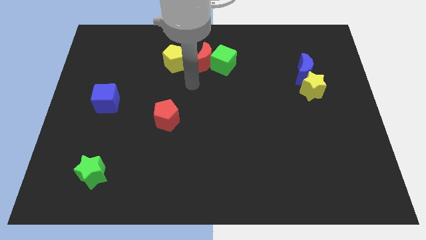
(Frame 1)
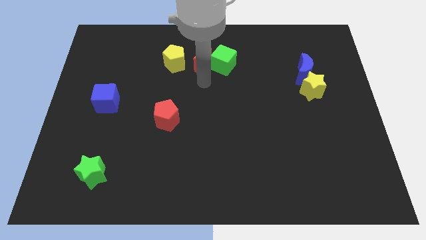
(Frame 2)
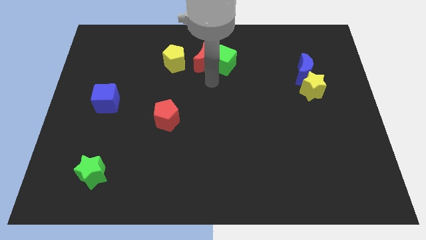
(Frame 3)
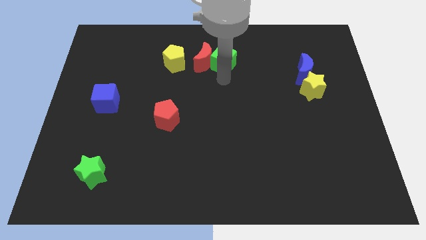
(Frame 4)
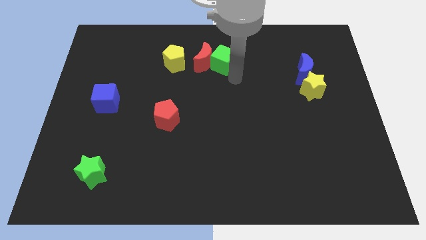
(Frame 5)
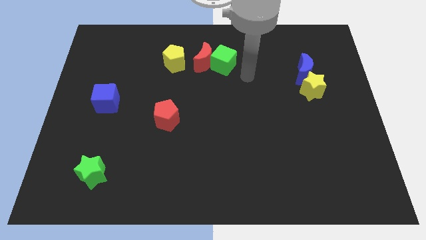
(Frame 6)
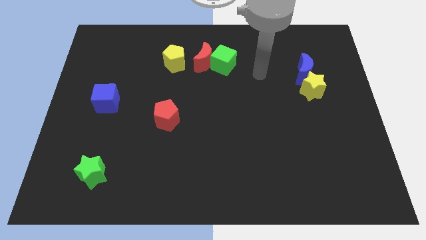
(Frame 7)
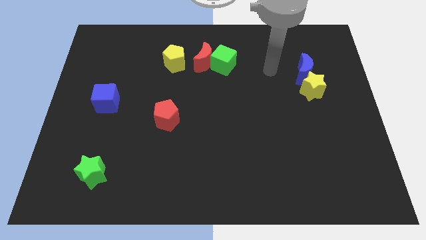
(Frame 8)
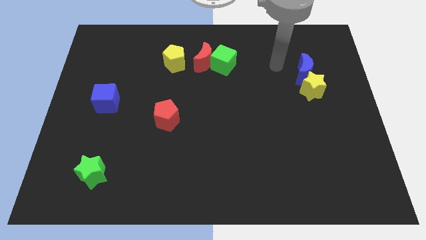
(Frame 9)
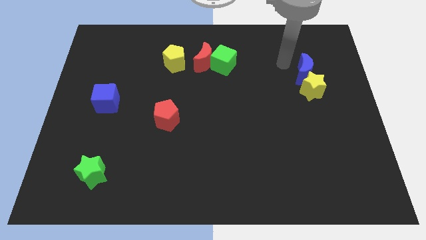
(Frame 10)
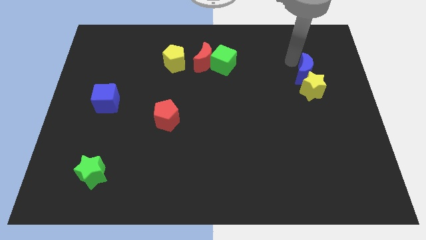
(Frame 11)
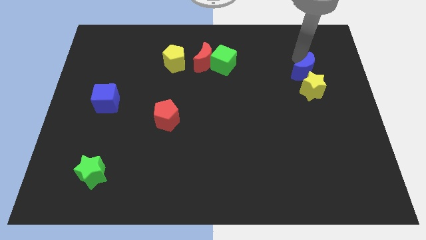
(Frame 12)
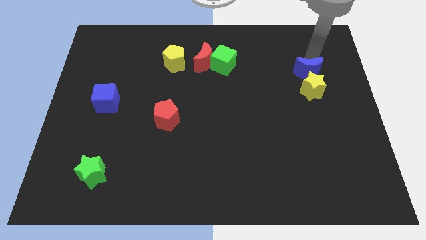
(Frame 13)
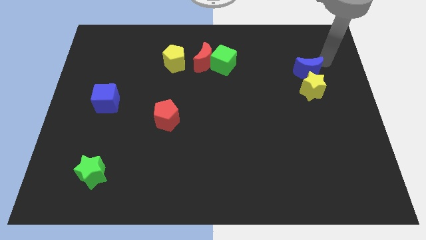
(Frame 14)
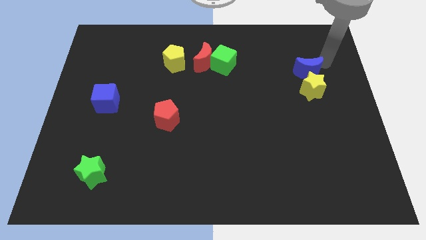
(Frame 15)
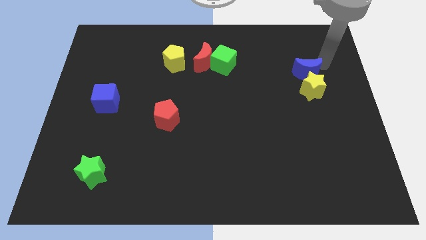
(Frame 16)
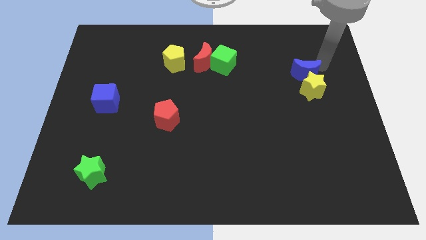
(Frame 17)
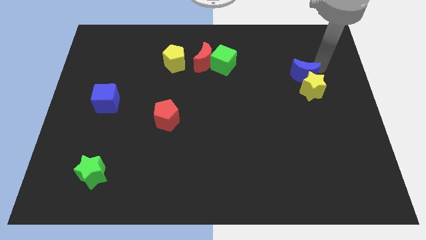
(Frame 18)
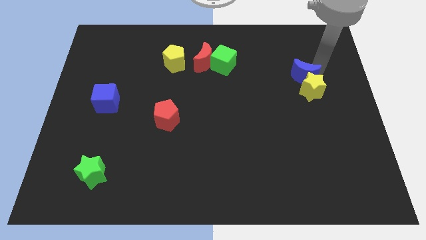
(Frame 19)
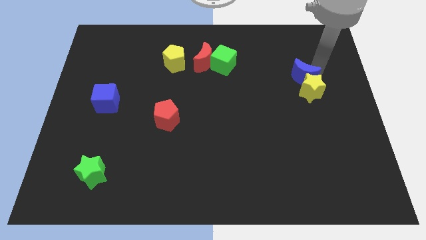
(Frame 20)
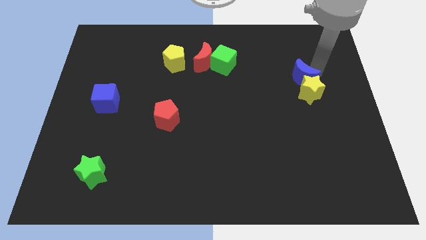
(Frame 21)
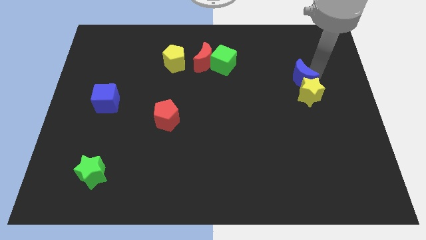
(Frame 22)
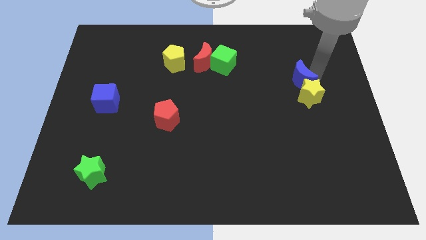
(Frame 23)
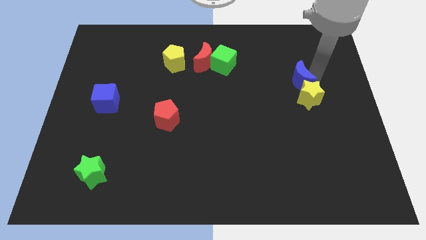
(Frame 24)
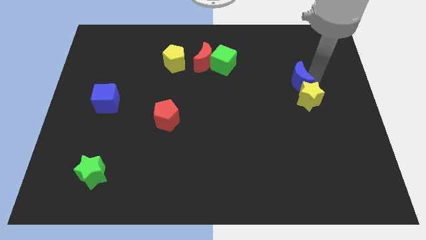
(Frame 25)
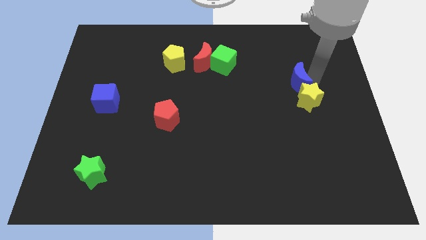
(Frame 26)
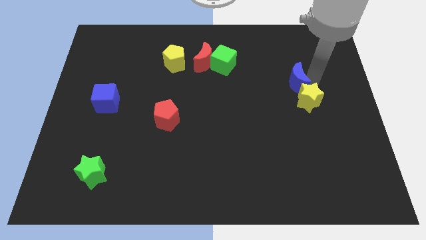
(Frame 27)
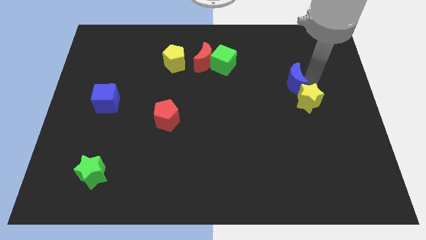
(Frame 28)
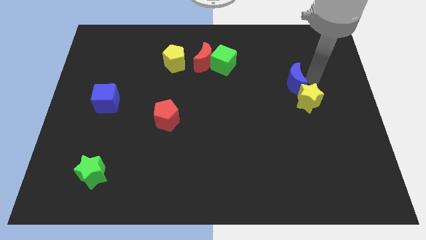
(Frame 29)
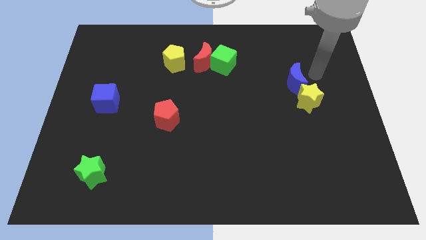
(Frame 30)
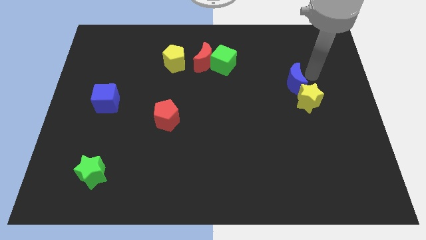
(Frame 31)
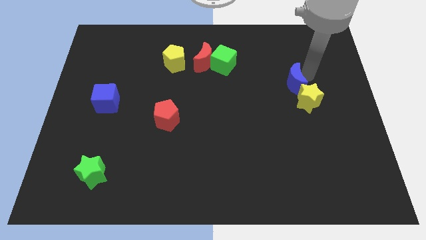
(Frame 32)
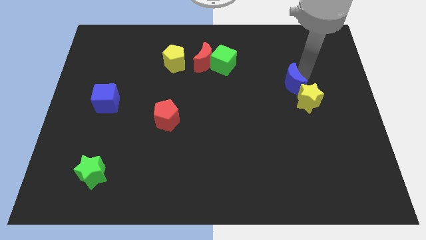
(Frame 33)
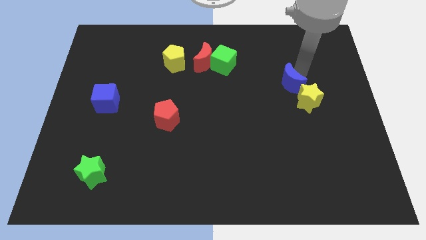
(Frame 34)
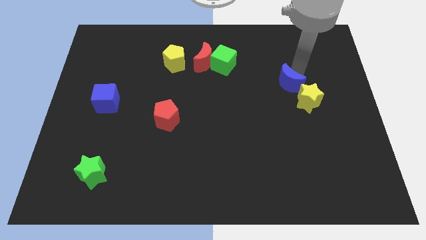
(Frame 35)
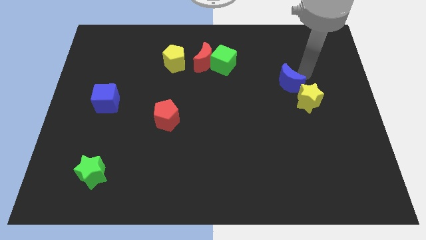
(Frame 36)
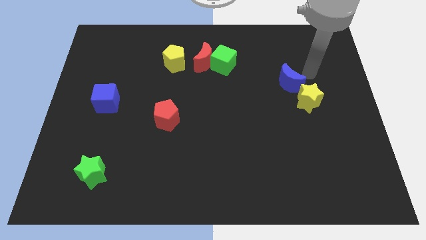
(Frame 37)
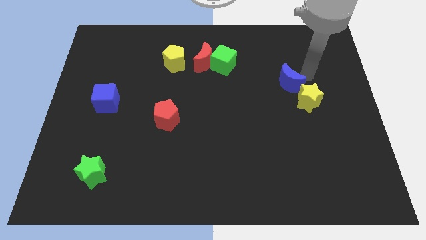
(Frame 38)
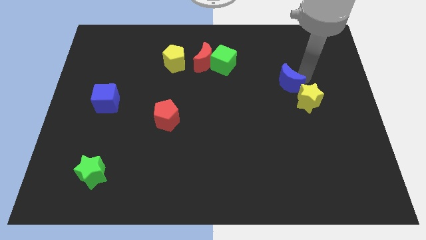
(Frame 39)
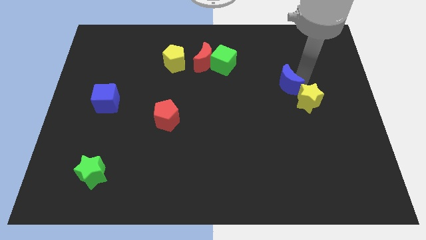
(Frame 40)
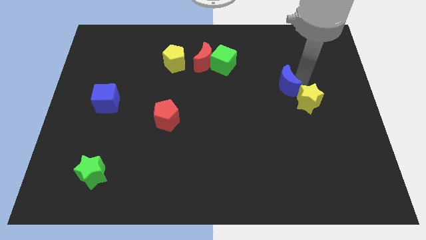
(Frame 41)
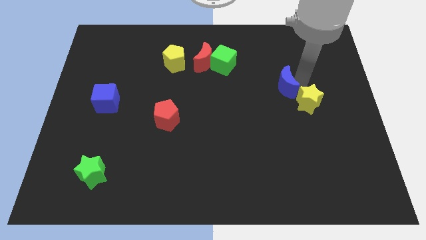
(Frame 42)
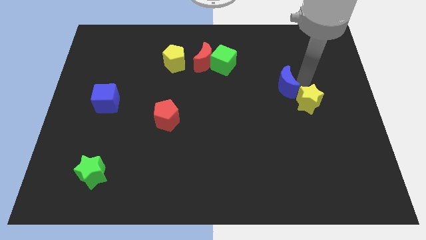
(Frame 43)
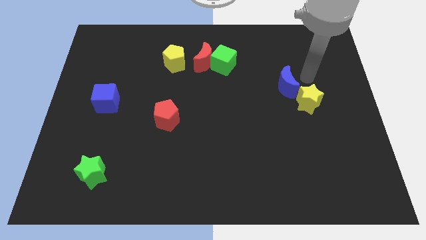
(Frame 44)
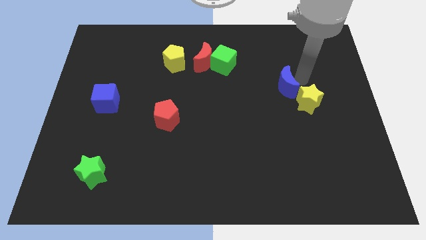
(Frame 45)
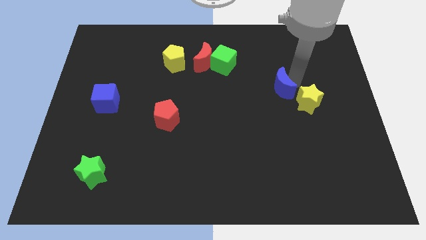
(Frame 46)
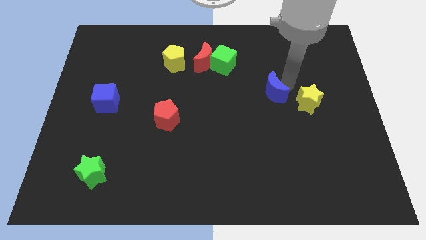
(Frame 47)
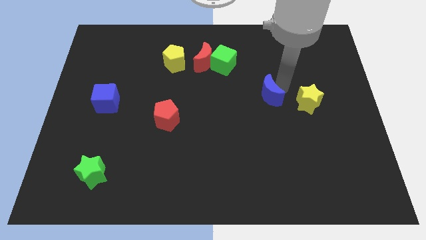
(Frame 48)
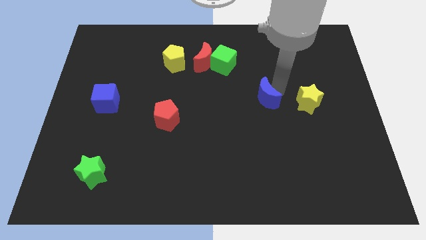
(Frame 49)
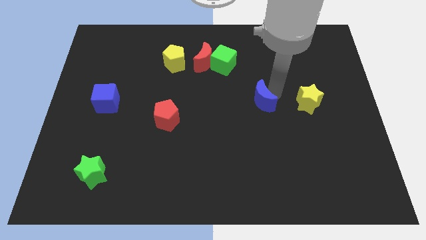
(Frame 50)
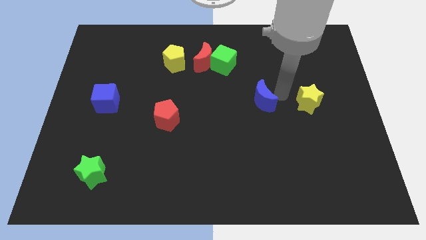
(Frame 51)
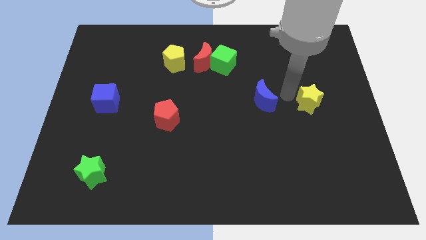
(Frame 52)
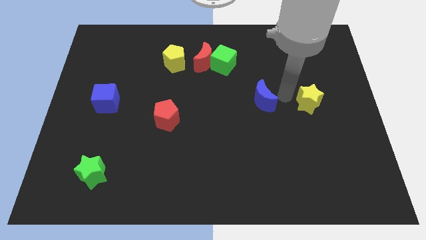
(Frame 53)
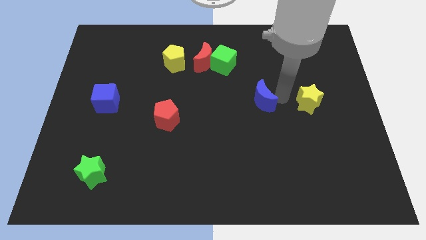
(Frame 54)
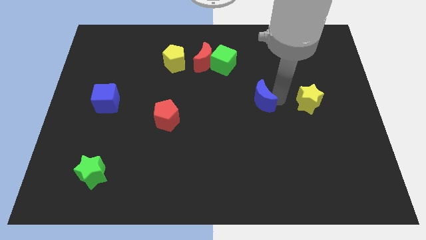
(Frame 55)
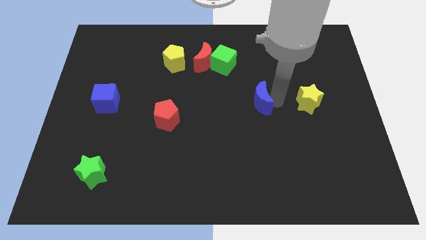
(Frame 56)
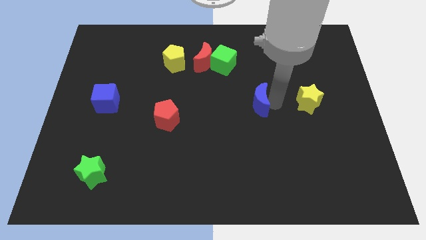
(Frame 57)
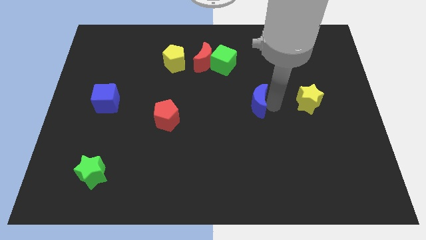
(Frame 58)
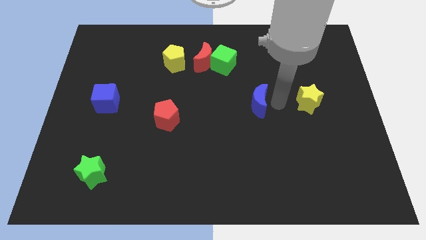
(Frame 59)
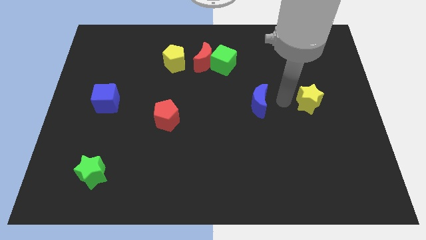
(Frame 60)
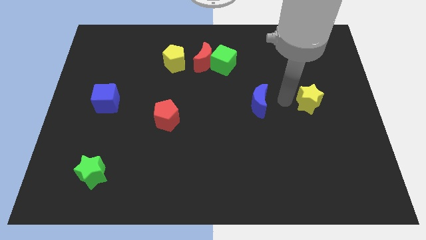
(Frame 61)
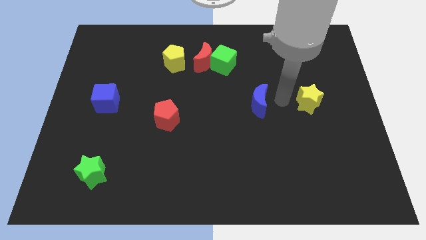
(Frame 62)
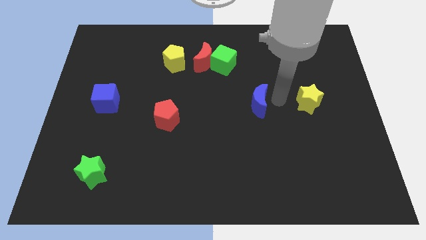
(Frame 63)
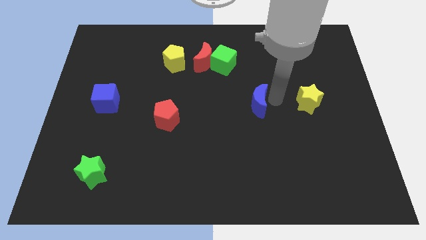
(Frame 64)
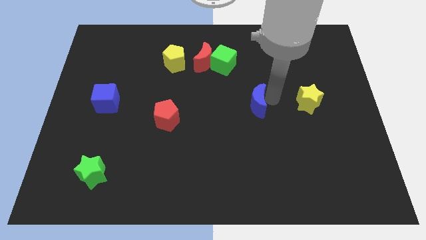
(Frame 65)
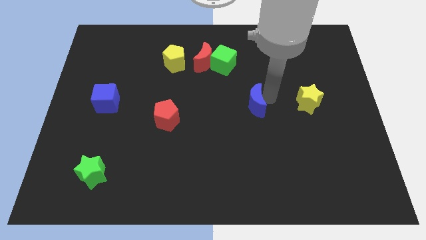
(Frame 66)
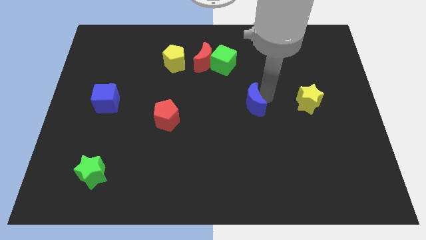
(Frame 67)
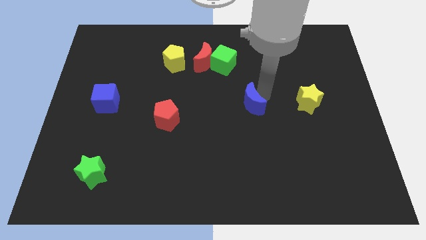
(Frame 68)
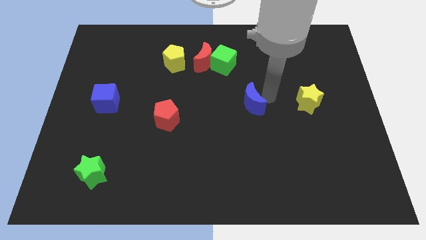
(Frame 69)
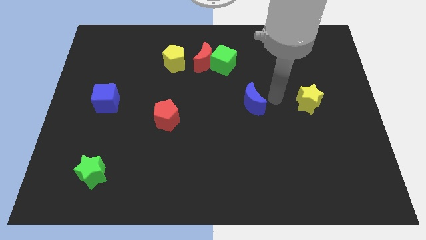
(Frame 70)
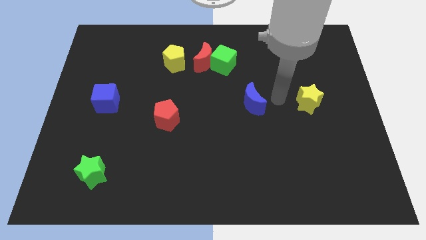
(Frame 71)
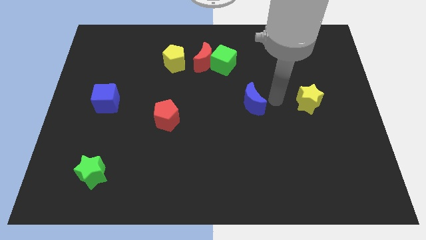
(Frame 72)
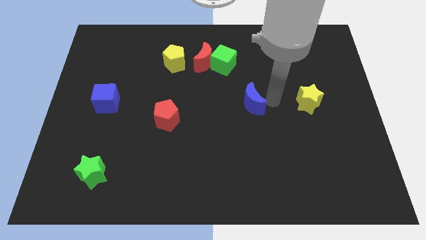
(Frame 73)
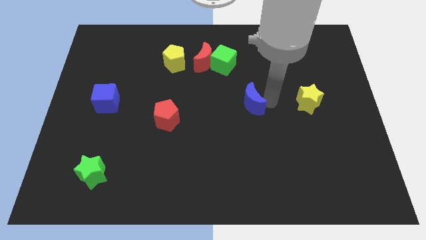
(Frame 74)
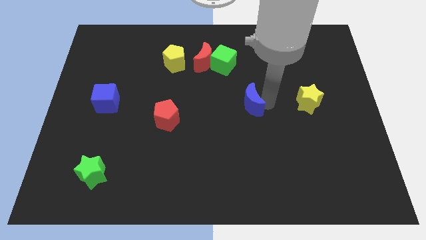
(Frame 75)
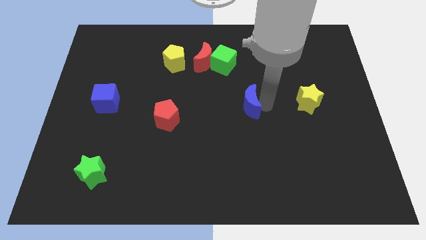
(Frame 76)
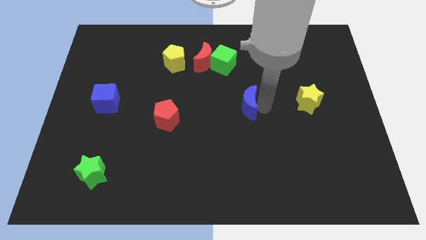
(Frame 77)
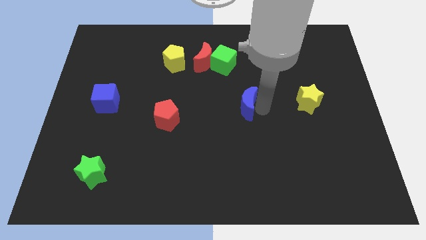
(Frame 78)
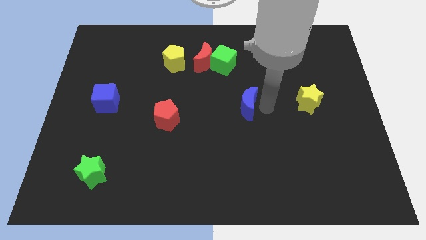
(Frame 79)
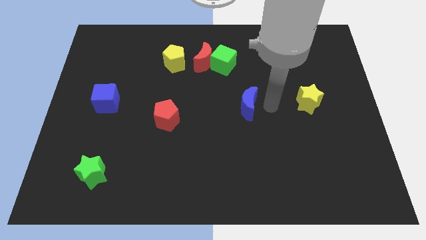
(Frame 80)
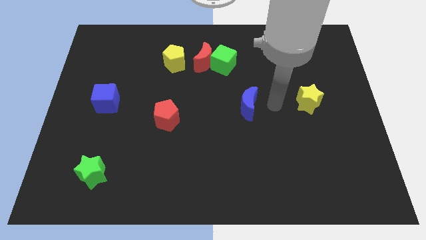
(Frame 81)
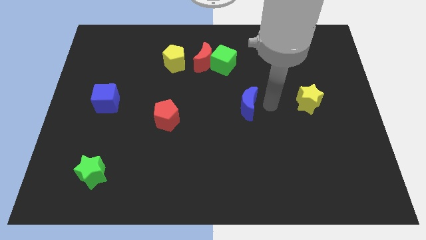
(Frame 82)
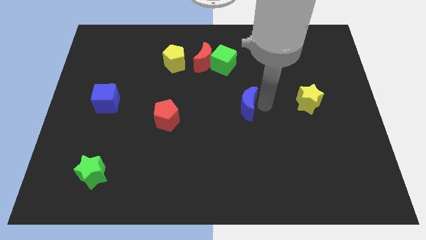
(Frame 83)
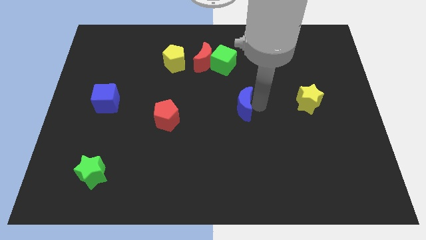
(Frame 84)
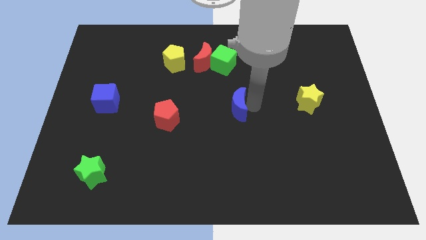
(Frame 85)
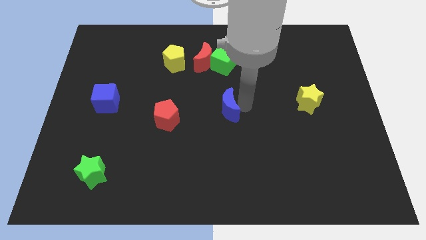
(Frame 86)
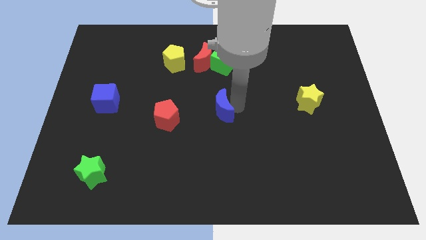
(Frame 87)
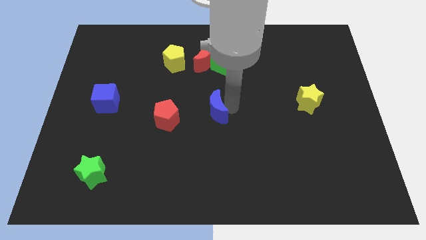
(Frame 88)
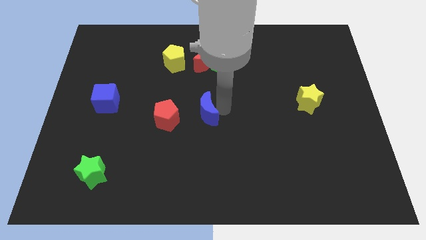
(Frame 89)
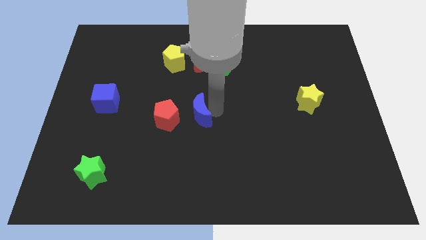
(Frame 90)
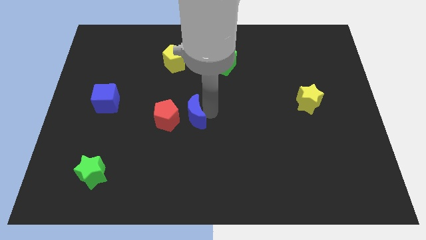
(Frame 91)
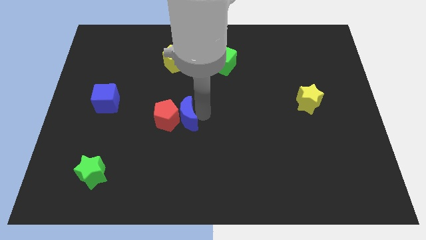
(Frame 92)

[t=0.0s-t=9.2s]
move the blue moon to the red pentagon
